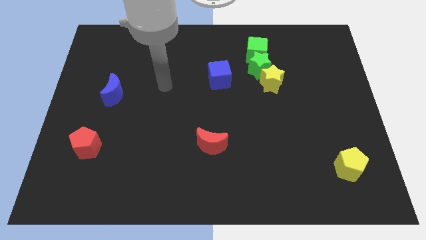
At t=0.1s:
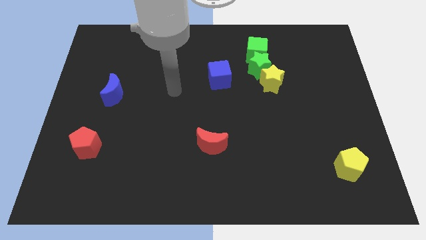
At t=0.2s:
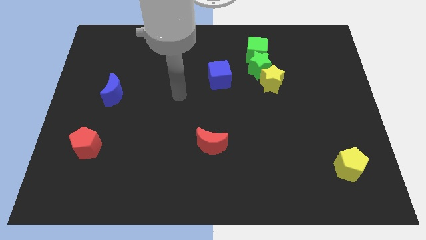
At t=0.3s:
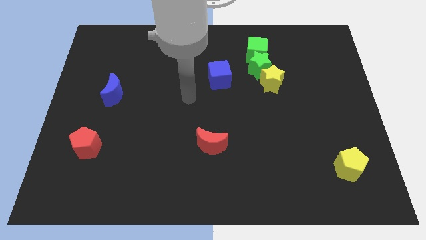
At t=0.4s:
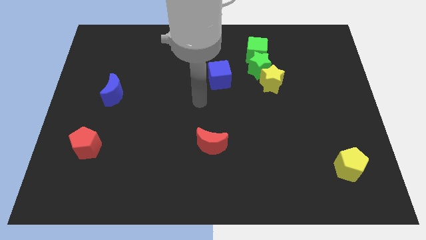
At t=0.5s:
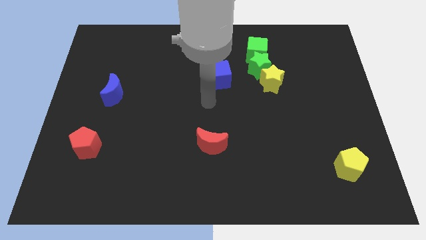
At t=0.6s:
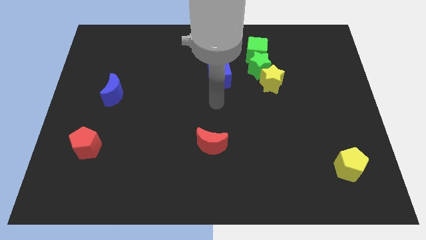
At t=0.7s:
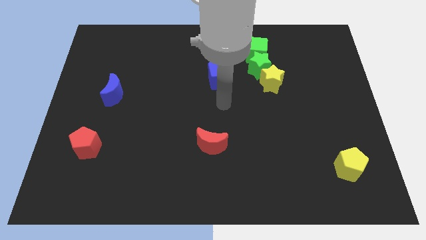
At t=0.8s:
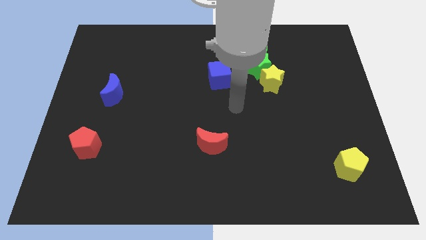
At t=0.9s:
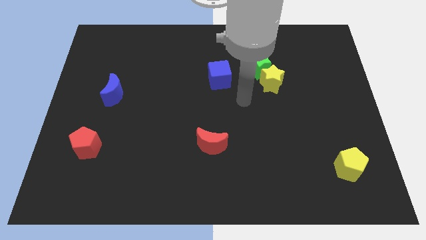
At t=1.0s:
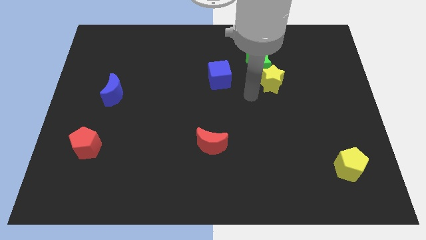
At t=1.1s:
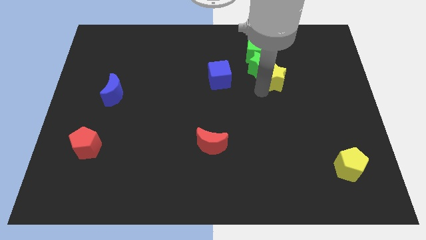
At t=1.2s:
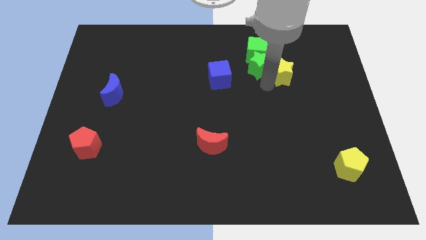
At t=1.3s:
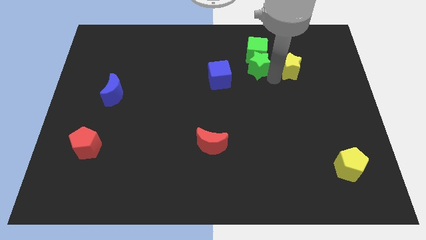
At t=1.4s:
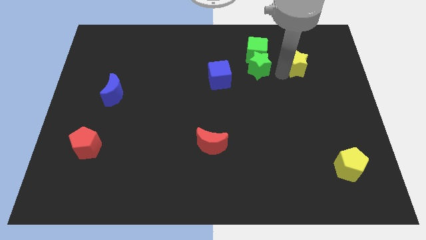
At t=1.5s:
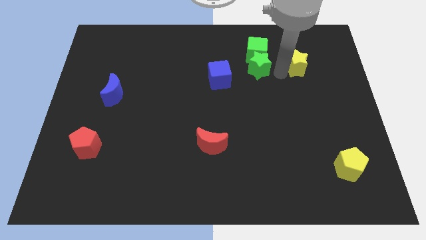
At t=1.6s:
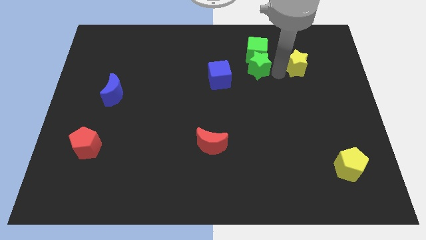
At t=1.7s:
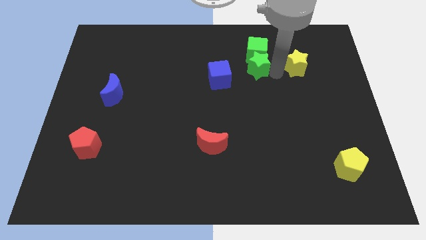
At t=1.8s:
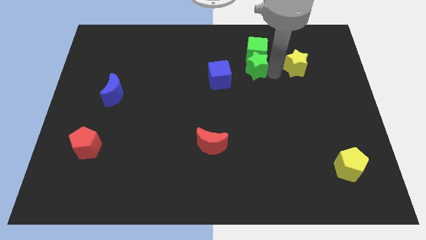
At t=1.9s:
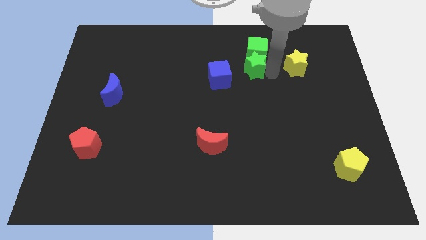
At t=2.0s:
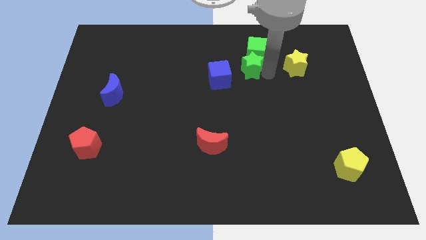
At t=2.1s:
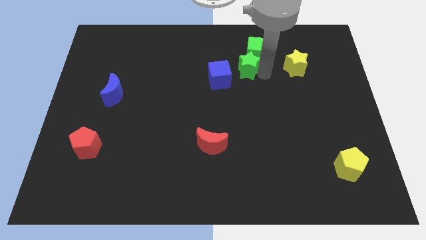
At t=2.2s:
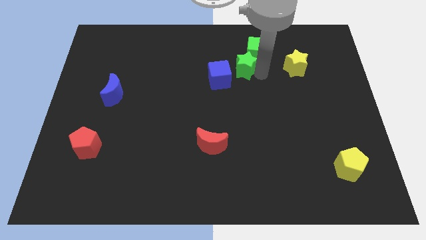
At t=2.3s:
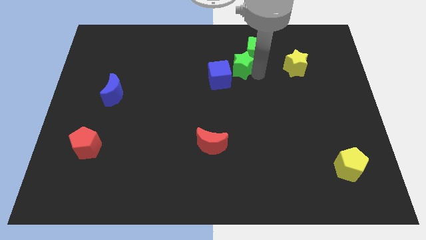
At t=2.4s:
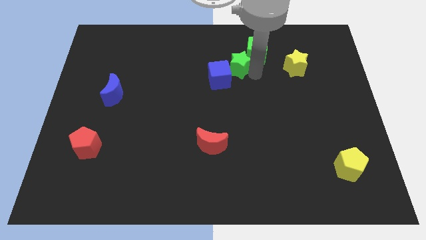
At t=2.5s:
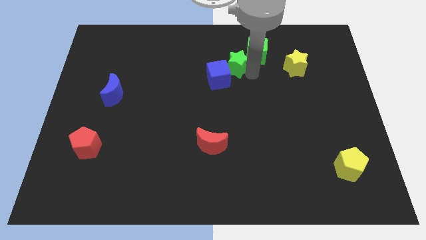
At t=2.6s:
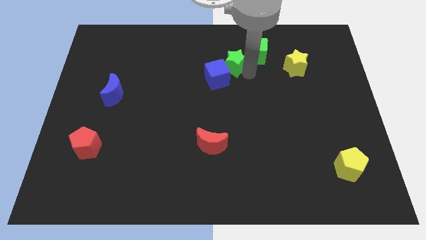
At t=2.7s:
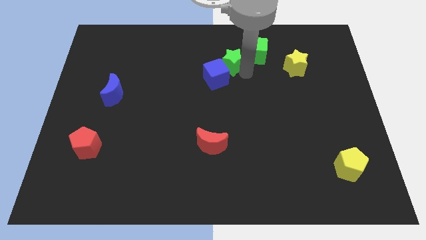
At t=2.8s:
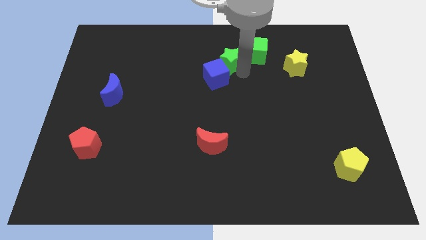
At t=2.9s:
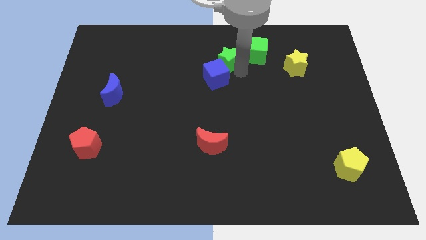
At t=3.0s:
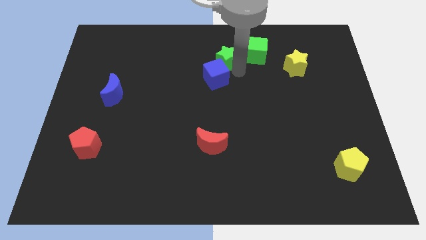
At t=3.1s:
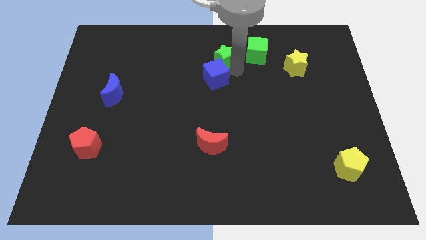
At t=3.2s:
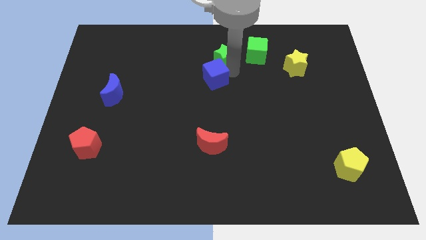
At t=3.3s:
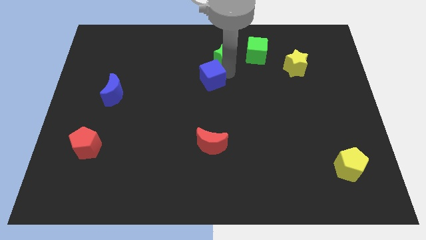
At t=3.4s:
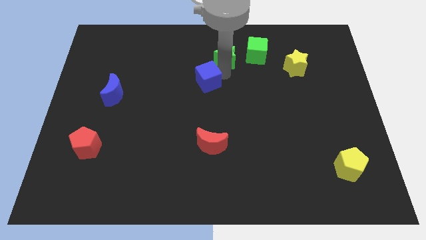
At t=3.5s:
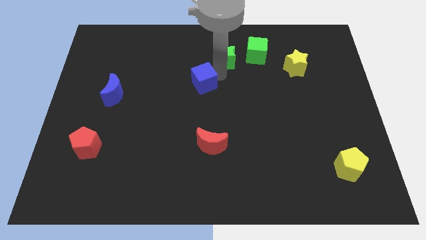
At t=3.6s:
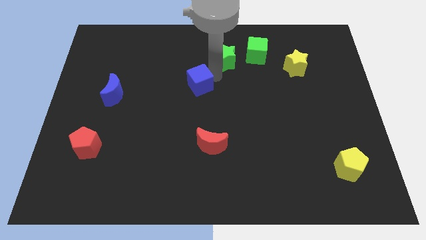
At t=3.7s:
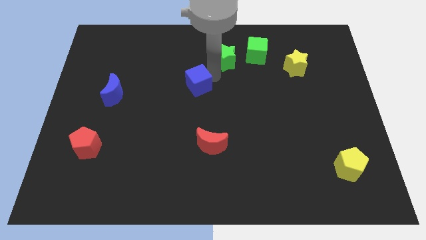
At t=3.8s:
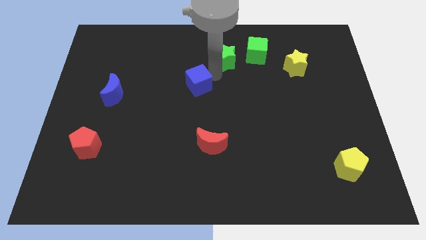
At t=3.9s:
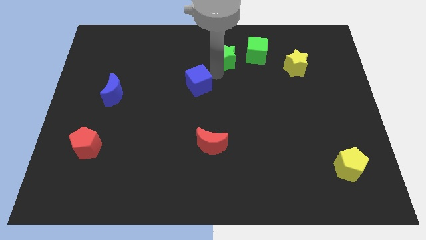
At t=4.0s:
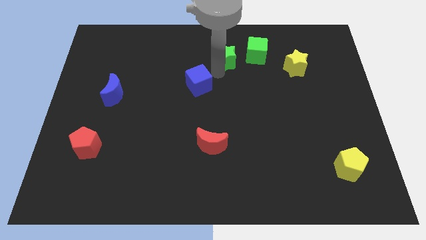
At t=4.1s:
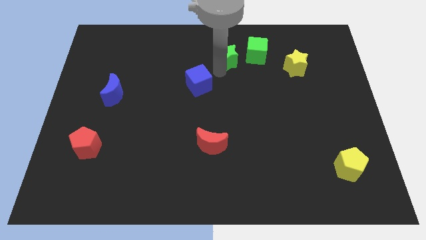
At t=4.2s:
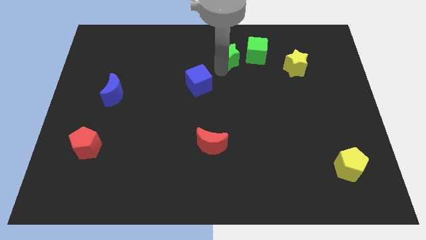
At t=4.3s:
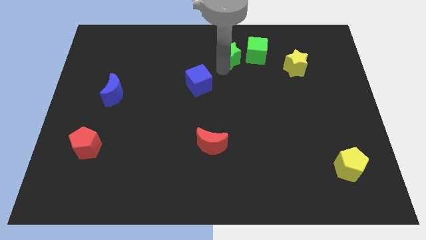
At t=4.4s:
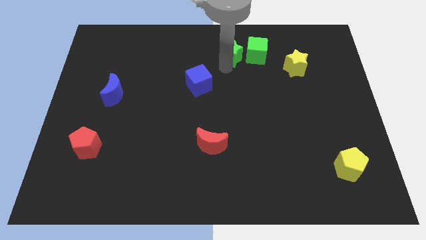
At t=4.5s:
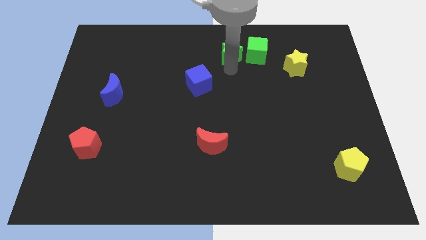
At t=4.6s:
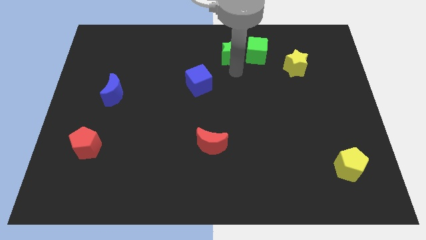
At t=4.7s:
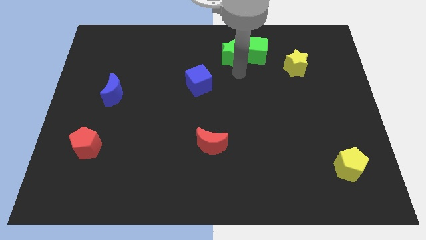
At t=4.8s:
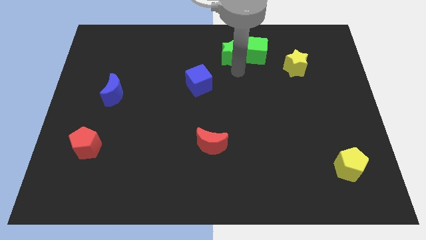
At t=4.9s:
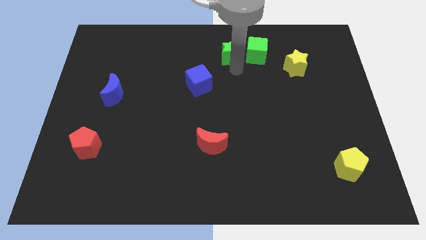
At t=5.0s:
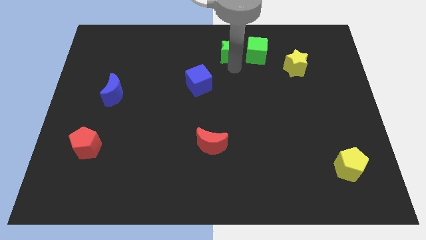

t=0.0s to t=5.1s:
put the green star to the top side
